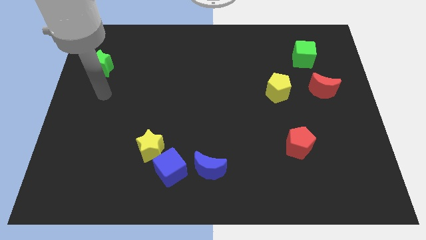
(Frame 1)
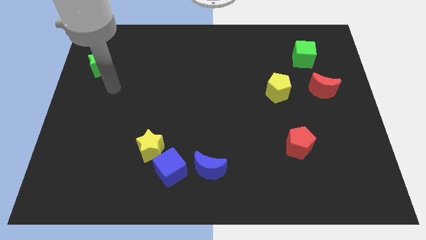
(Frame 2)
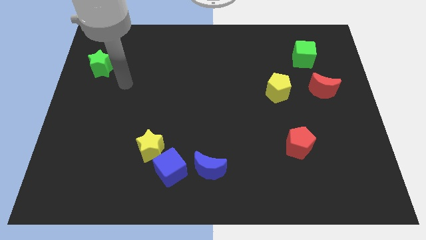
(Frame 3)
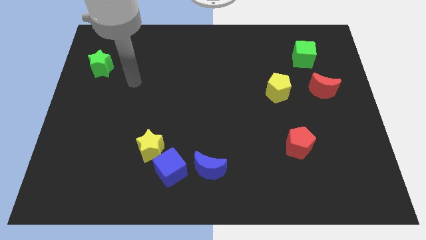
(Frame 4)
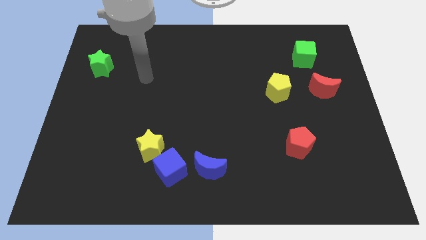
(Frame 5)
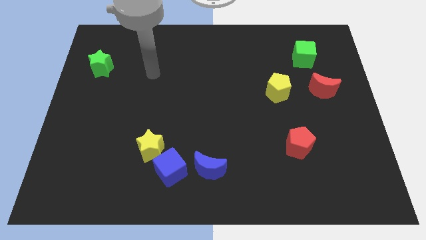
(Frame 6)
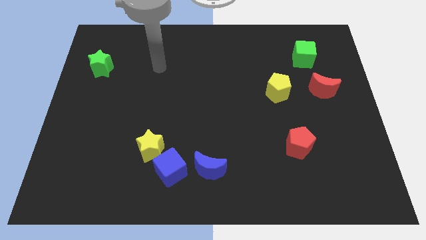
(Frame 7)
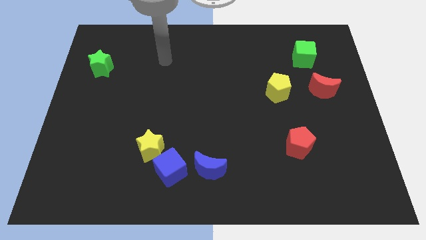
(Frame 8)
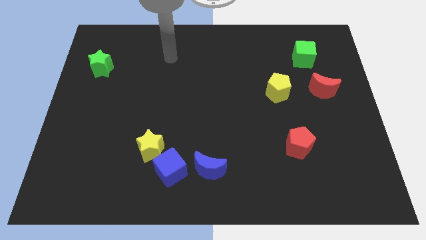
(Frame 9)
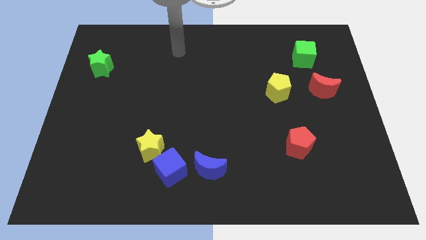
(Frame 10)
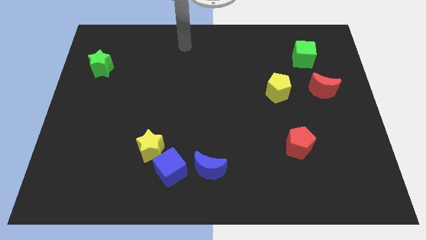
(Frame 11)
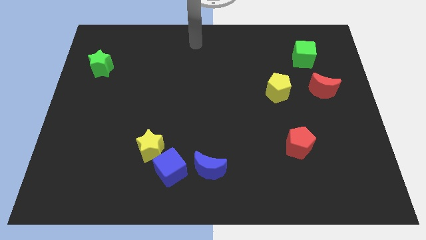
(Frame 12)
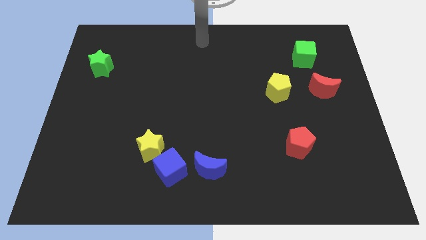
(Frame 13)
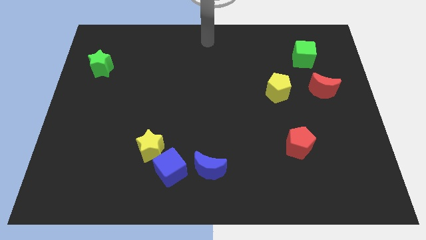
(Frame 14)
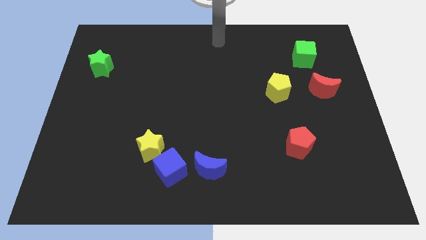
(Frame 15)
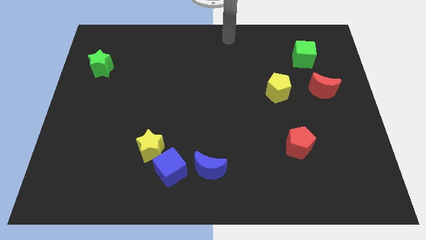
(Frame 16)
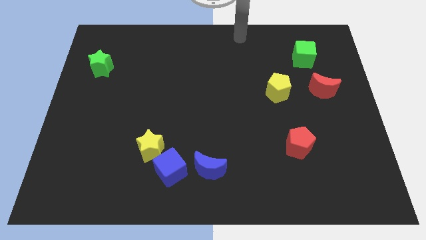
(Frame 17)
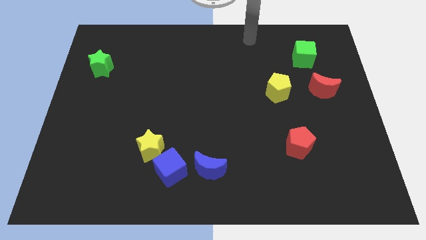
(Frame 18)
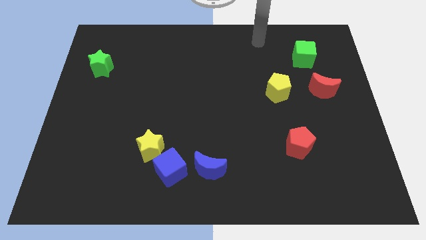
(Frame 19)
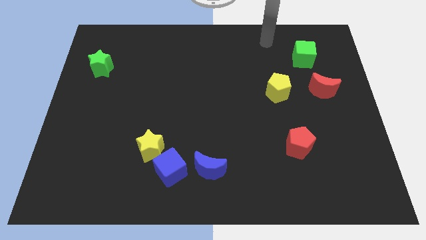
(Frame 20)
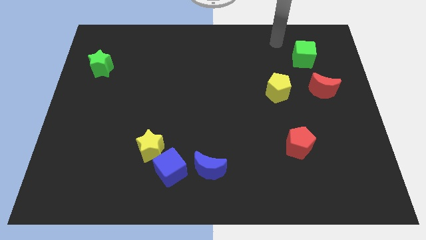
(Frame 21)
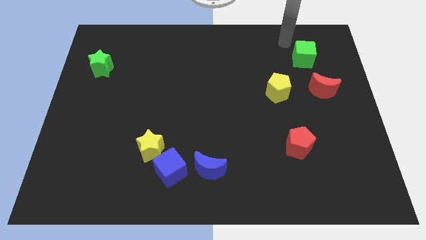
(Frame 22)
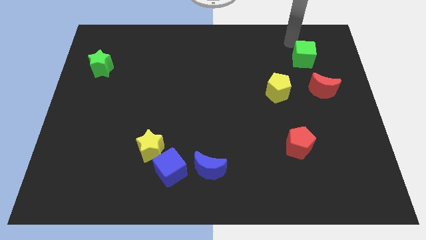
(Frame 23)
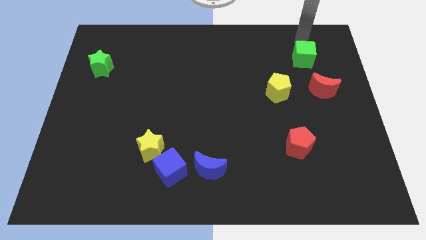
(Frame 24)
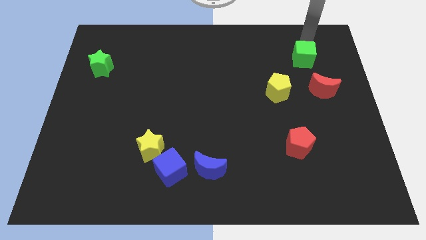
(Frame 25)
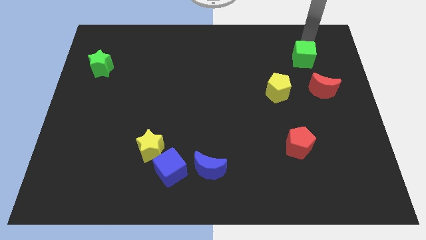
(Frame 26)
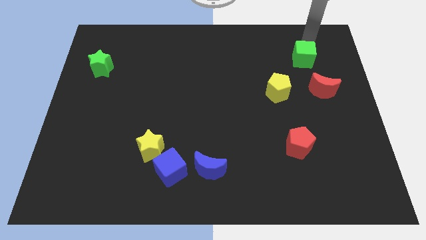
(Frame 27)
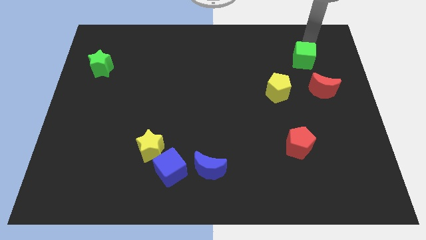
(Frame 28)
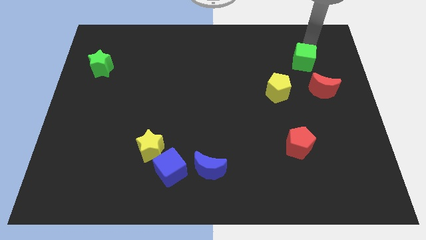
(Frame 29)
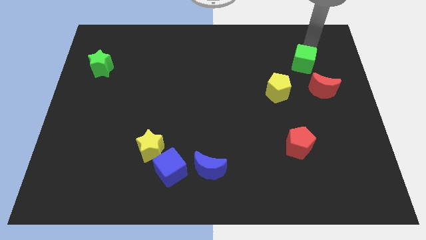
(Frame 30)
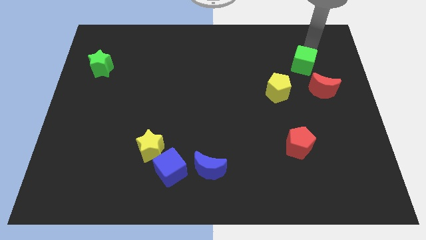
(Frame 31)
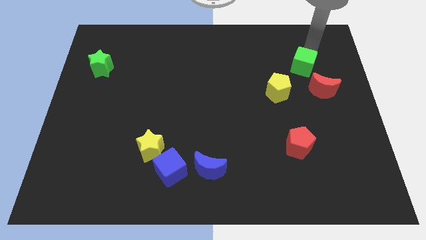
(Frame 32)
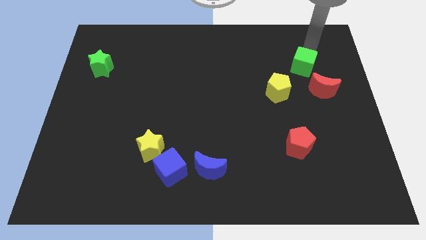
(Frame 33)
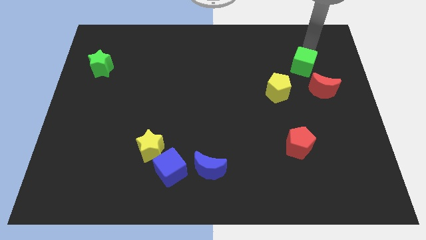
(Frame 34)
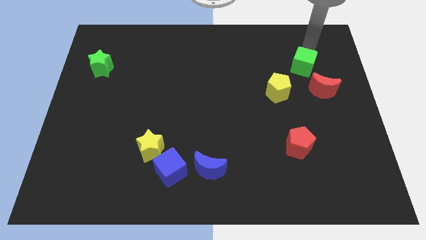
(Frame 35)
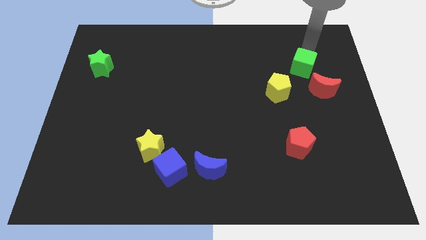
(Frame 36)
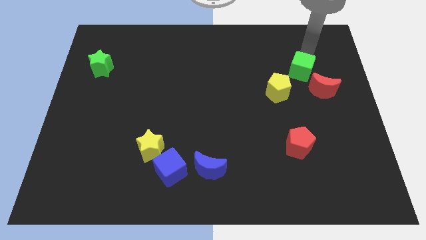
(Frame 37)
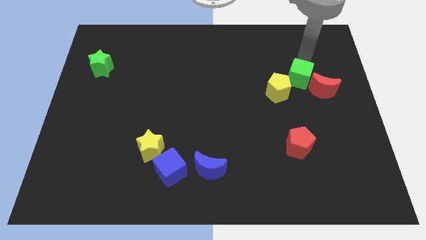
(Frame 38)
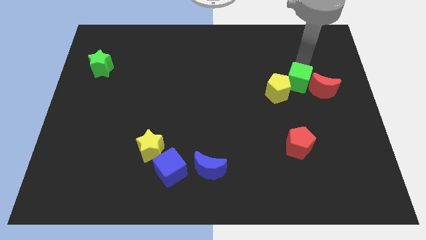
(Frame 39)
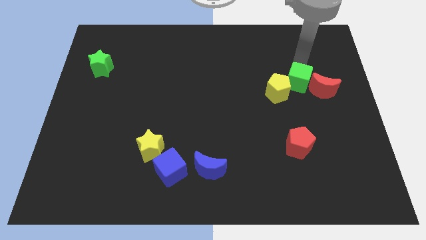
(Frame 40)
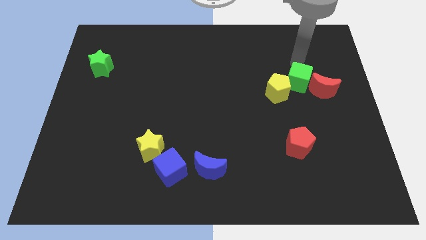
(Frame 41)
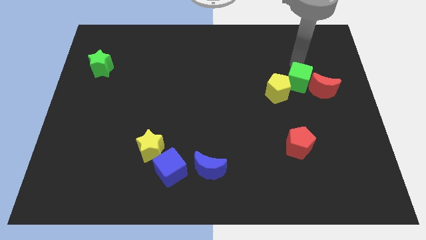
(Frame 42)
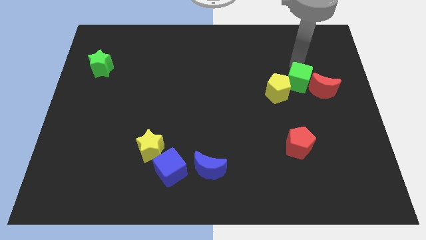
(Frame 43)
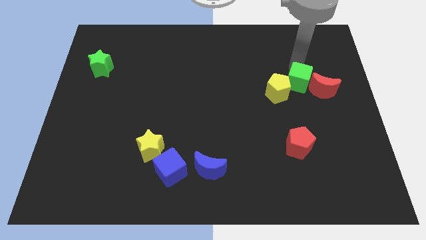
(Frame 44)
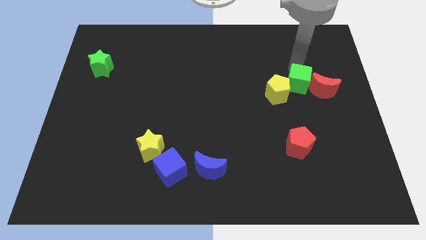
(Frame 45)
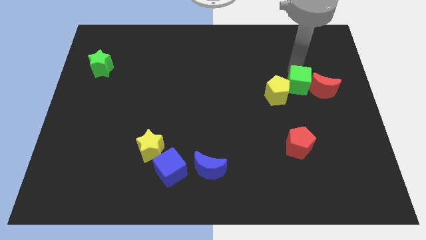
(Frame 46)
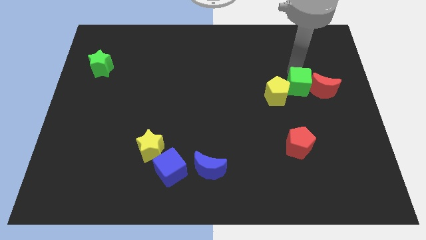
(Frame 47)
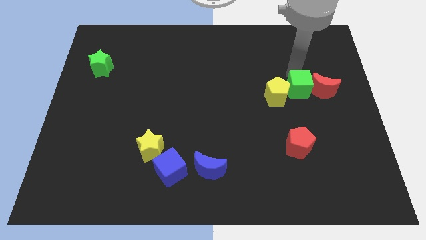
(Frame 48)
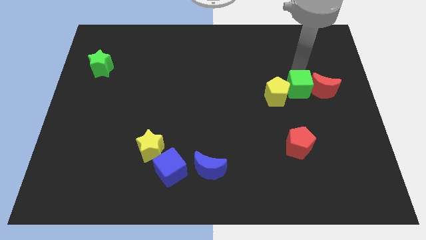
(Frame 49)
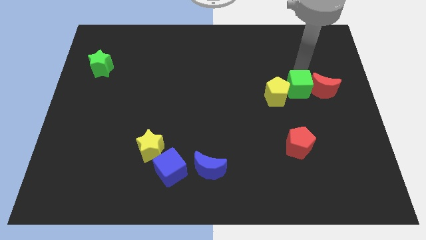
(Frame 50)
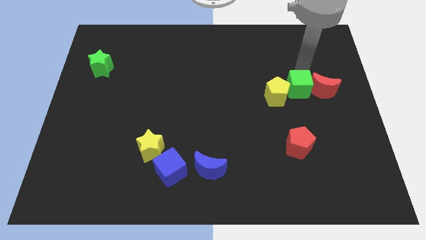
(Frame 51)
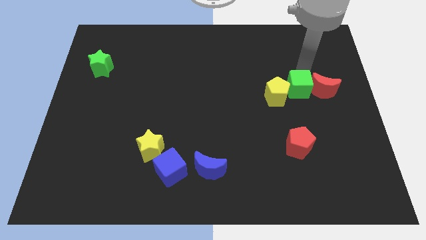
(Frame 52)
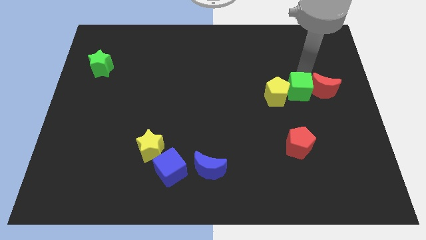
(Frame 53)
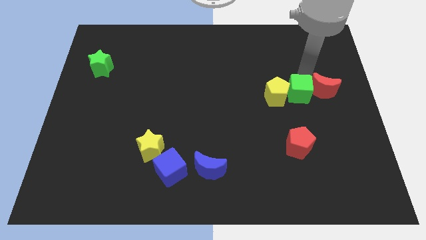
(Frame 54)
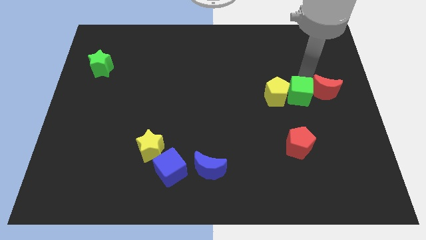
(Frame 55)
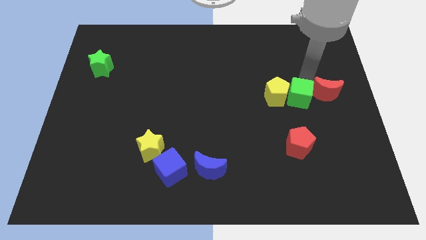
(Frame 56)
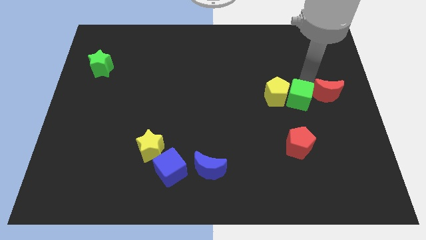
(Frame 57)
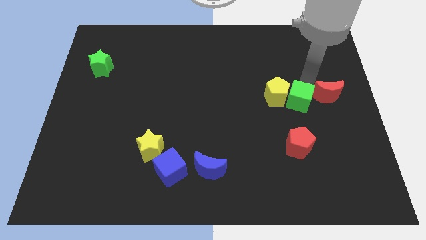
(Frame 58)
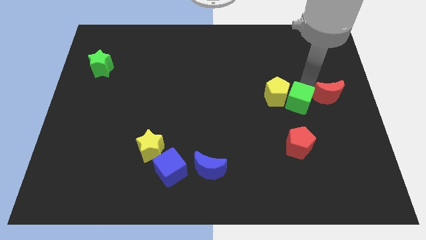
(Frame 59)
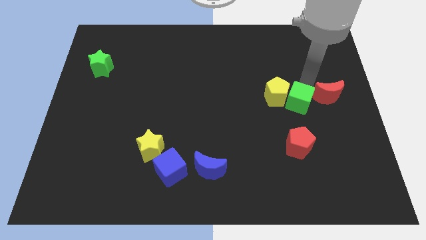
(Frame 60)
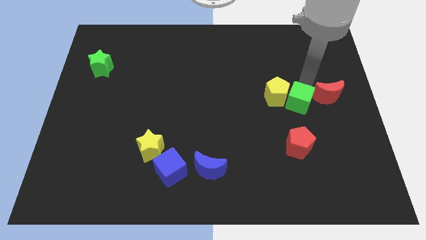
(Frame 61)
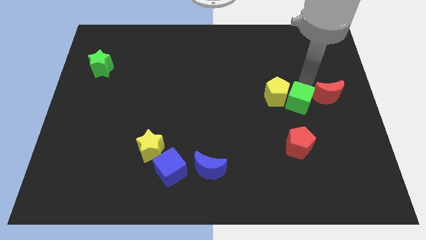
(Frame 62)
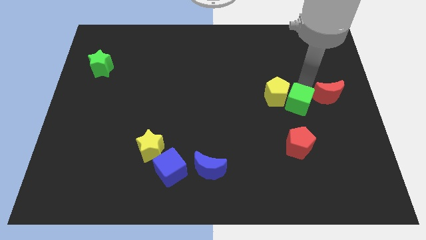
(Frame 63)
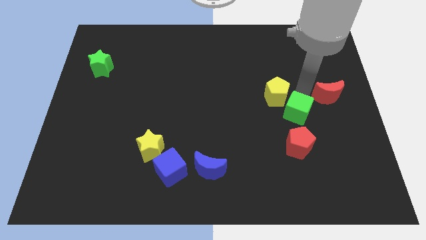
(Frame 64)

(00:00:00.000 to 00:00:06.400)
put the green cube to the bottom of the yellow pentagon

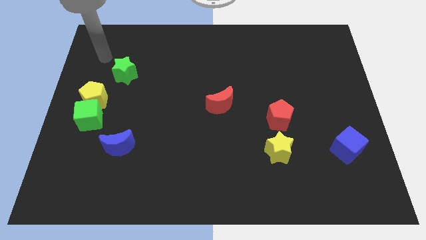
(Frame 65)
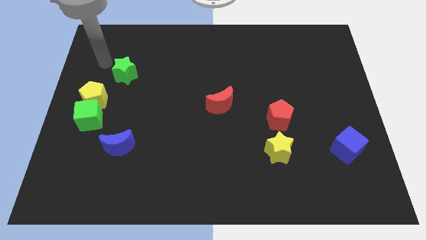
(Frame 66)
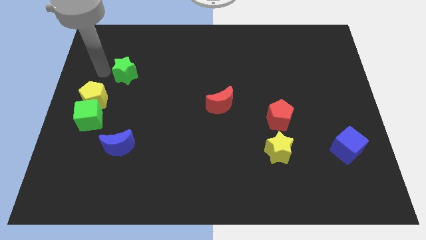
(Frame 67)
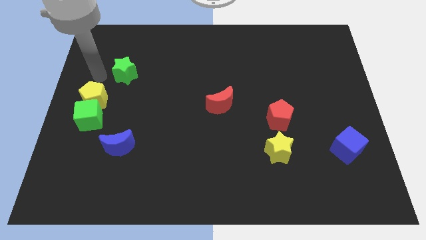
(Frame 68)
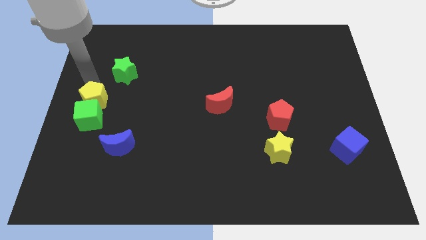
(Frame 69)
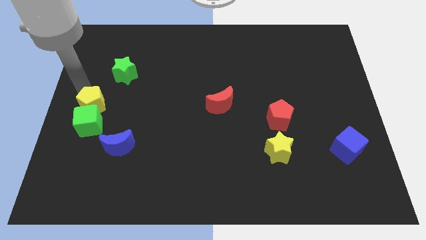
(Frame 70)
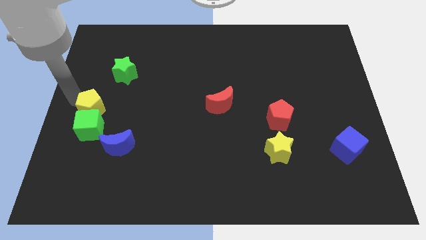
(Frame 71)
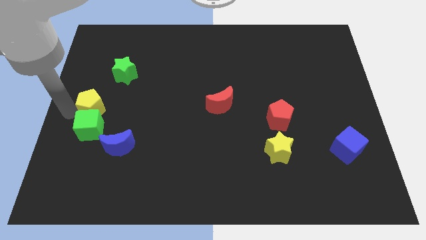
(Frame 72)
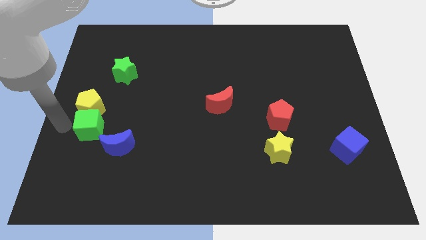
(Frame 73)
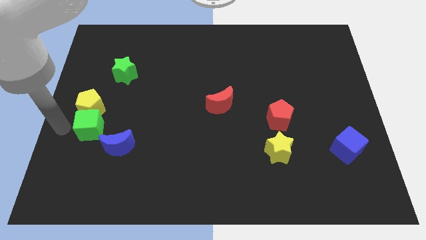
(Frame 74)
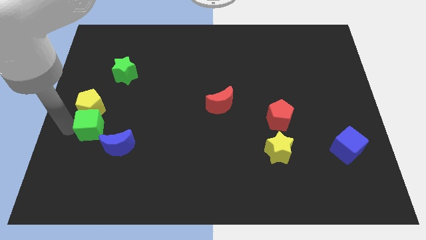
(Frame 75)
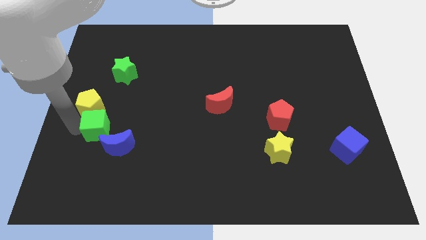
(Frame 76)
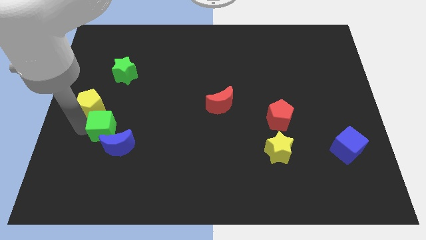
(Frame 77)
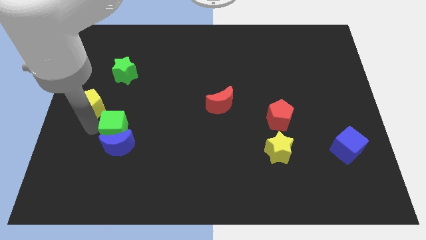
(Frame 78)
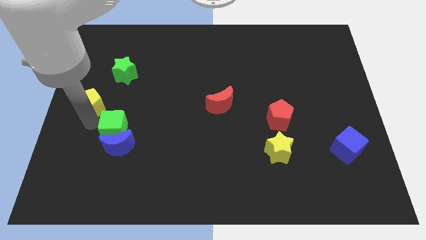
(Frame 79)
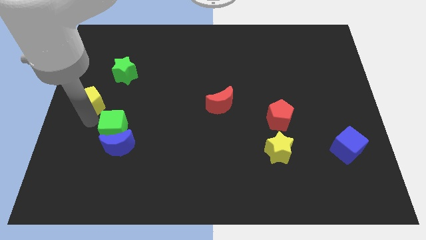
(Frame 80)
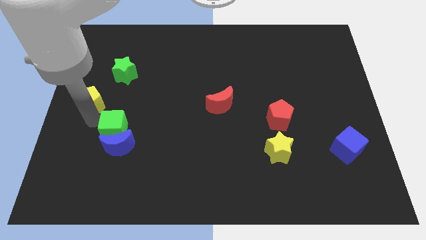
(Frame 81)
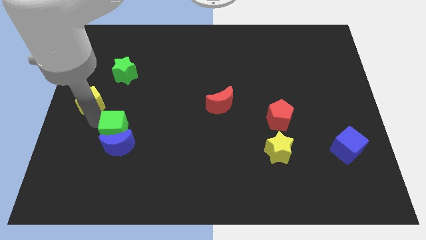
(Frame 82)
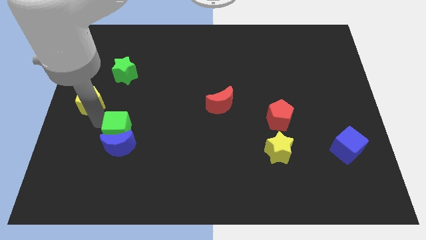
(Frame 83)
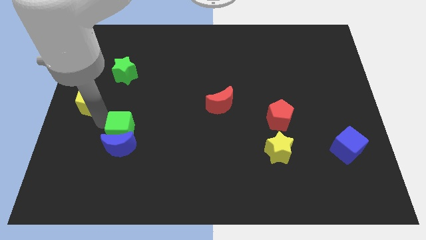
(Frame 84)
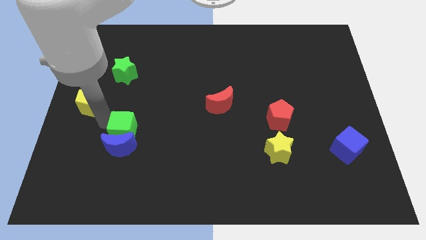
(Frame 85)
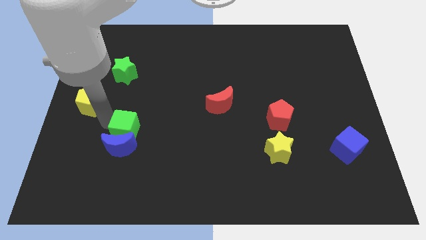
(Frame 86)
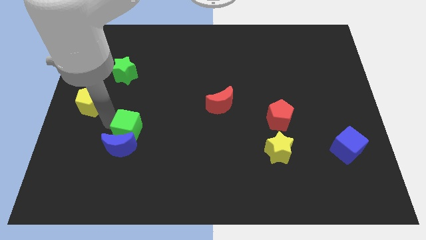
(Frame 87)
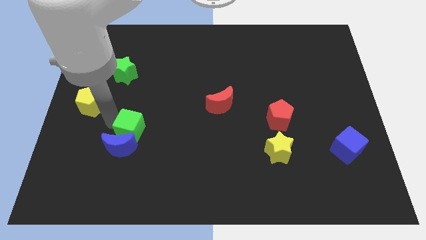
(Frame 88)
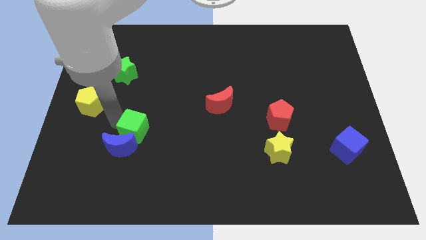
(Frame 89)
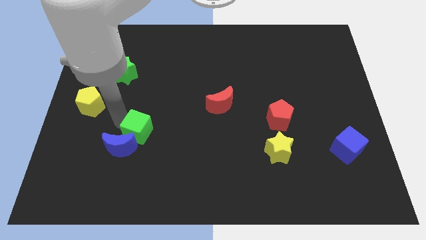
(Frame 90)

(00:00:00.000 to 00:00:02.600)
slide the green cube to the right side of the blue moon
